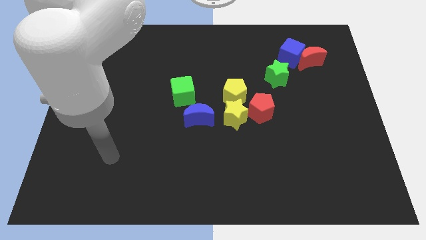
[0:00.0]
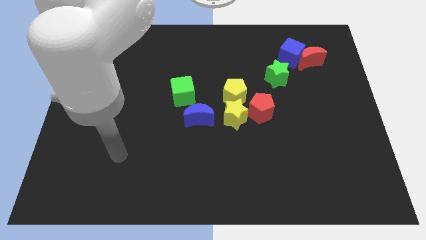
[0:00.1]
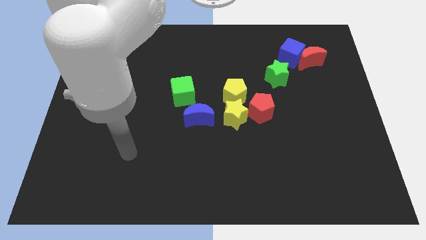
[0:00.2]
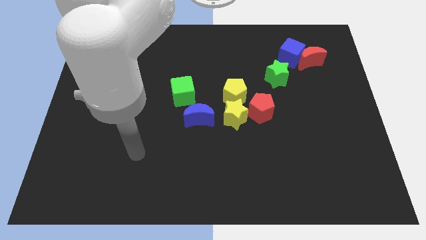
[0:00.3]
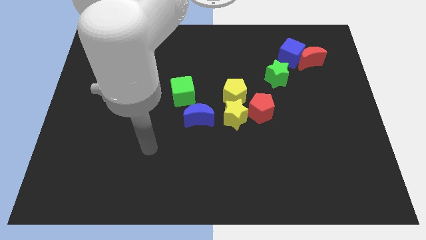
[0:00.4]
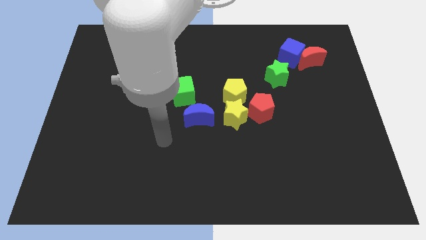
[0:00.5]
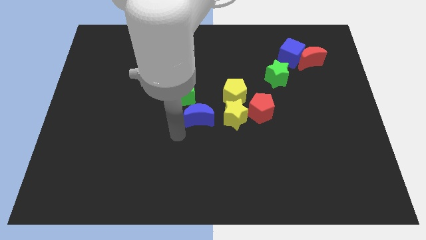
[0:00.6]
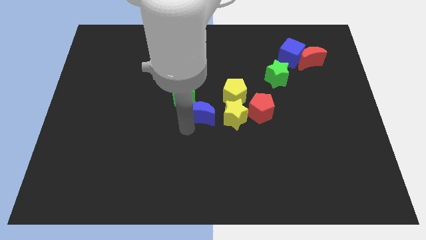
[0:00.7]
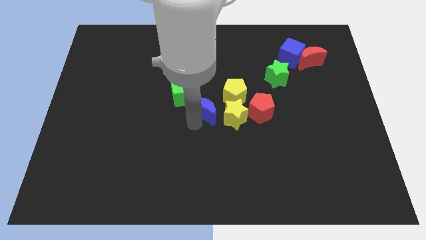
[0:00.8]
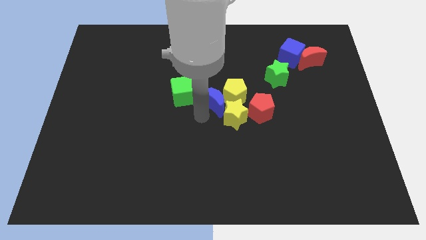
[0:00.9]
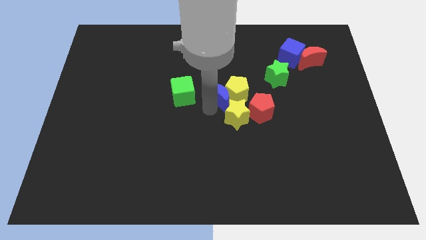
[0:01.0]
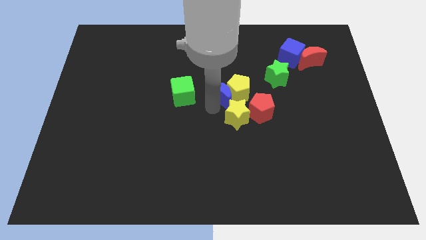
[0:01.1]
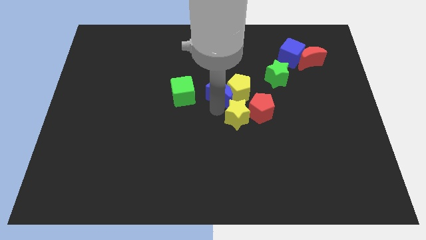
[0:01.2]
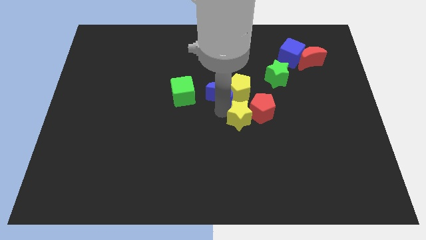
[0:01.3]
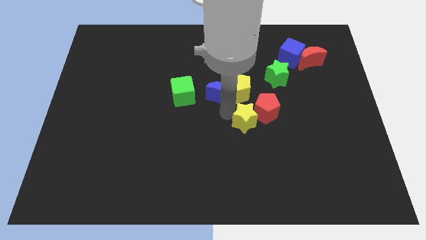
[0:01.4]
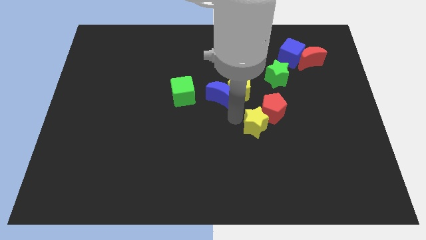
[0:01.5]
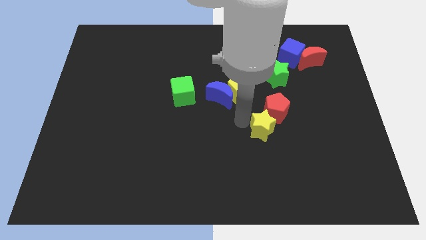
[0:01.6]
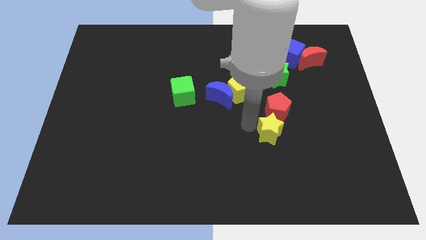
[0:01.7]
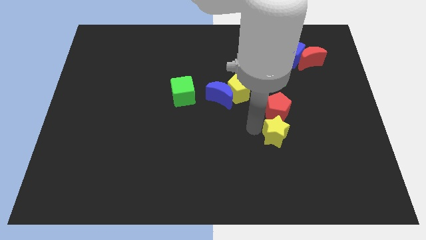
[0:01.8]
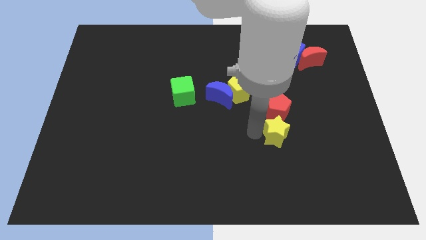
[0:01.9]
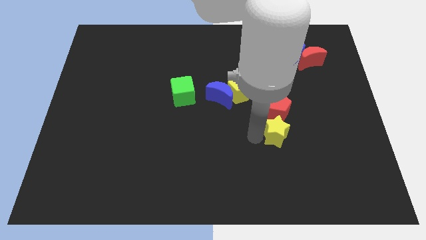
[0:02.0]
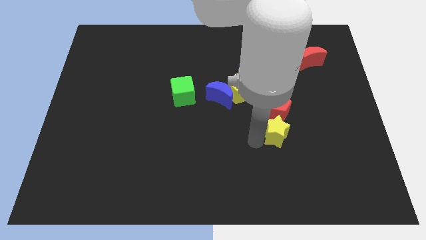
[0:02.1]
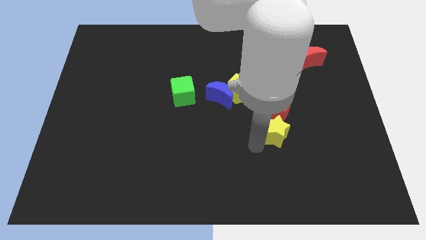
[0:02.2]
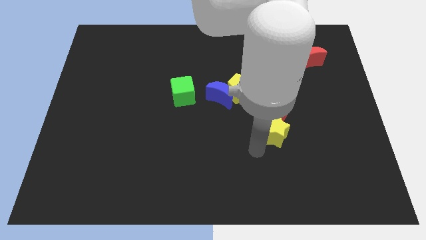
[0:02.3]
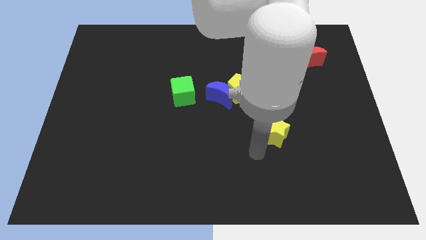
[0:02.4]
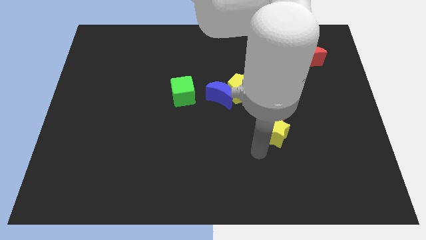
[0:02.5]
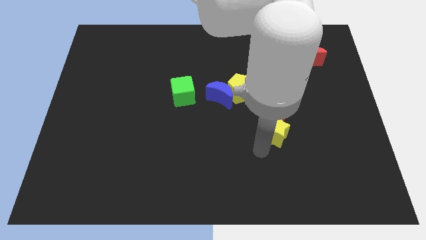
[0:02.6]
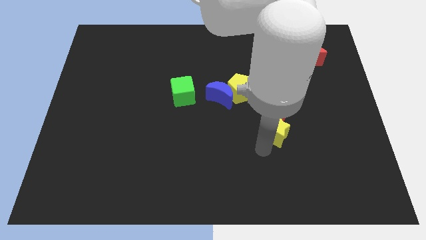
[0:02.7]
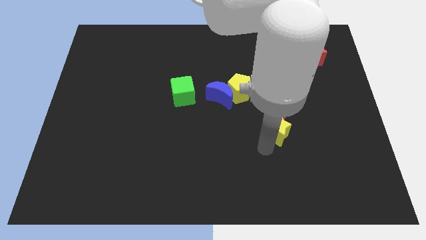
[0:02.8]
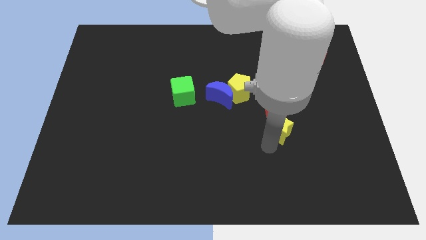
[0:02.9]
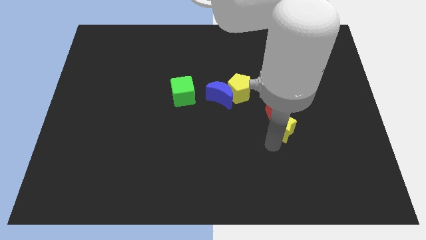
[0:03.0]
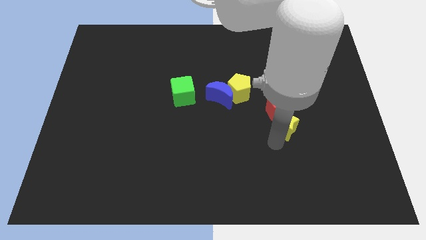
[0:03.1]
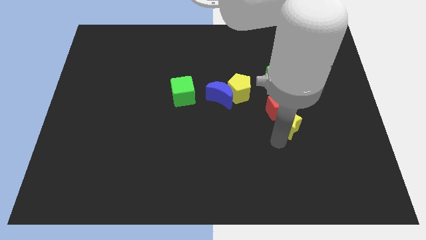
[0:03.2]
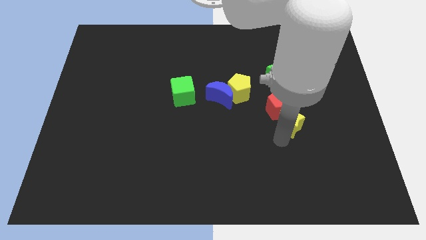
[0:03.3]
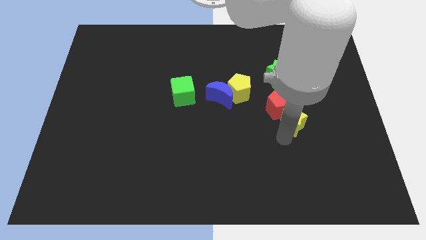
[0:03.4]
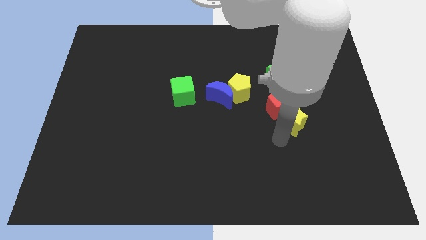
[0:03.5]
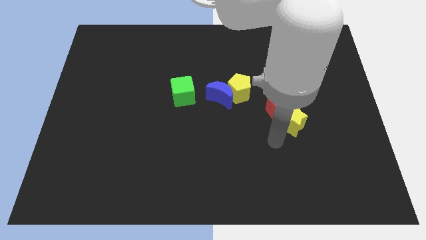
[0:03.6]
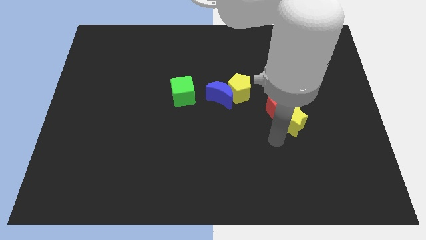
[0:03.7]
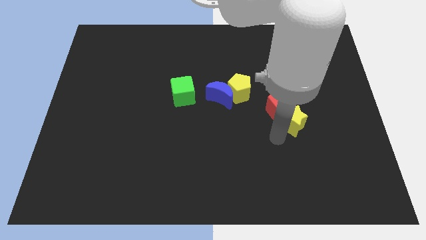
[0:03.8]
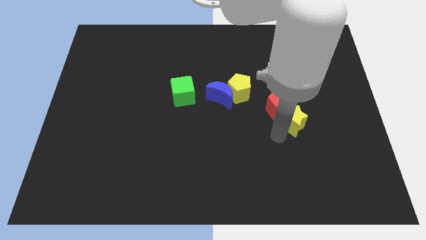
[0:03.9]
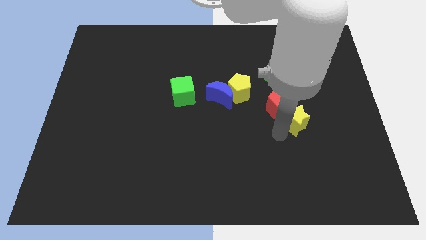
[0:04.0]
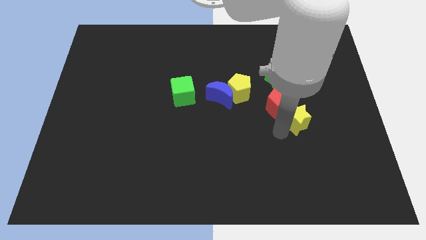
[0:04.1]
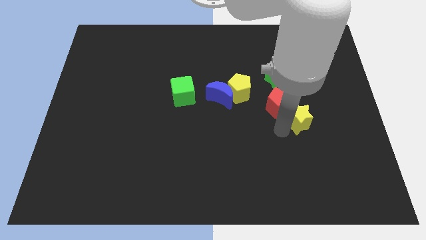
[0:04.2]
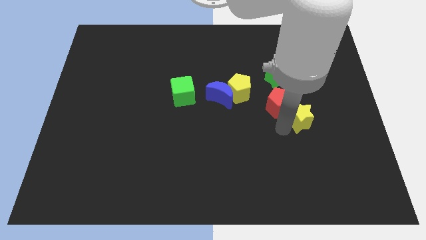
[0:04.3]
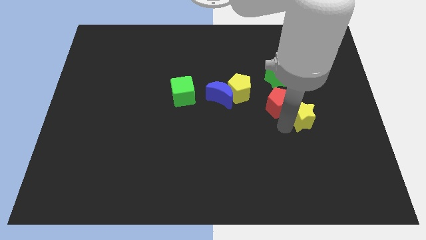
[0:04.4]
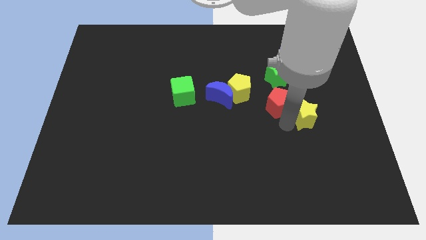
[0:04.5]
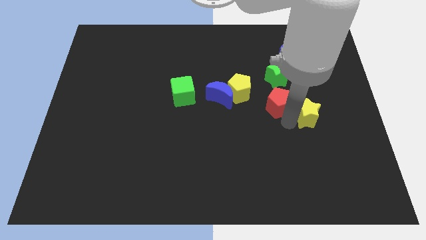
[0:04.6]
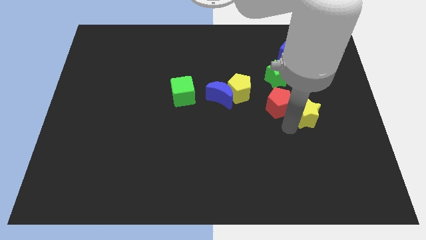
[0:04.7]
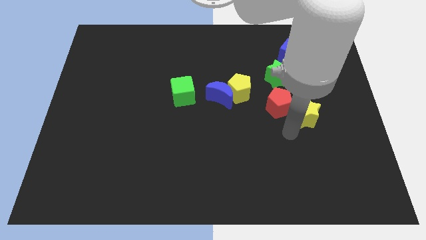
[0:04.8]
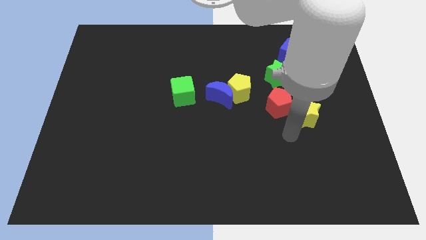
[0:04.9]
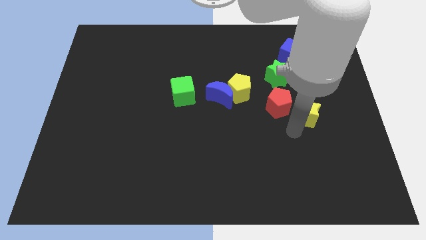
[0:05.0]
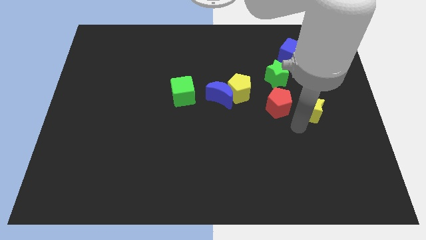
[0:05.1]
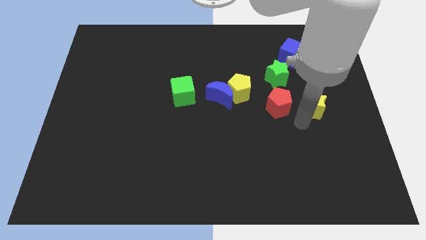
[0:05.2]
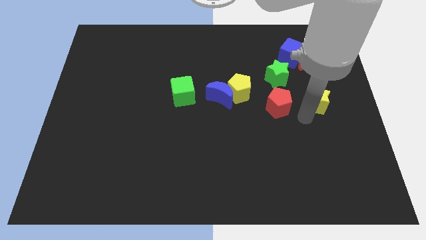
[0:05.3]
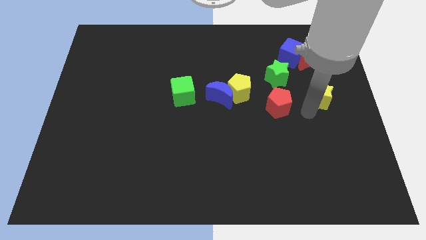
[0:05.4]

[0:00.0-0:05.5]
slide the yellow star to the right side

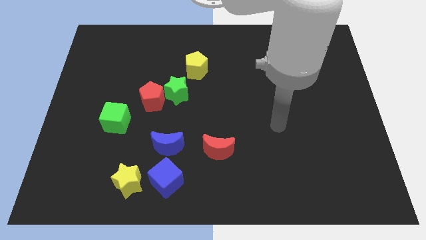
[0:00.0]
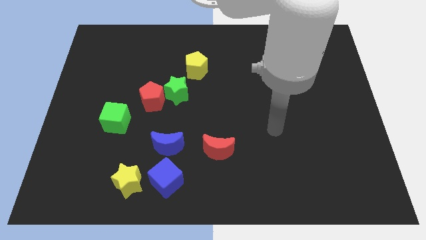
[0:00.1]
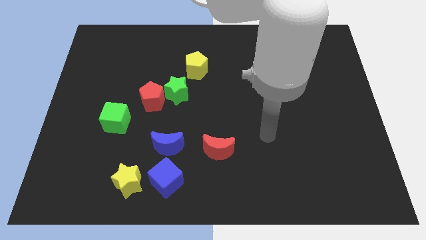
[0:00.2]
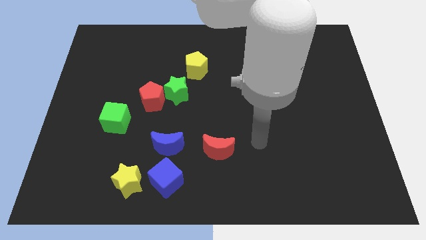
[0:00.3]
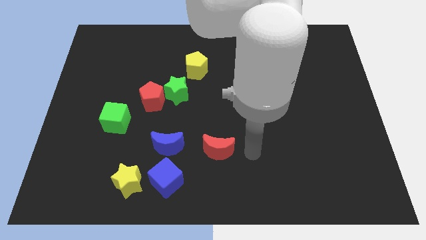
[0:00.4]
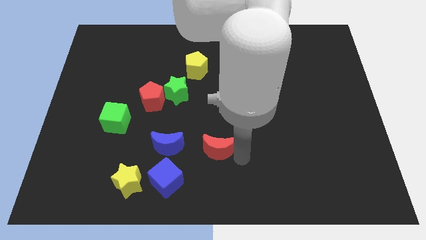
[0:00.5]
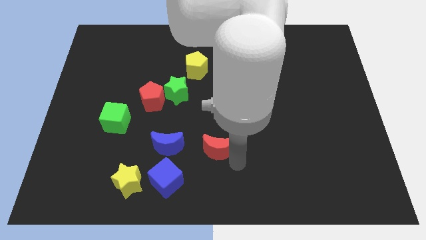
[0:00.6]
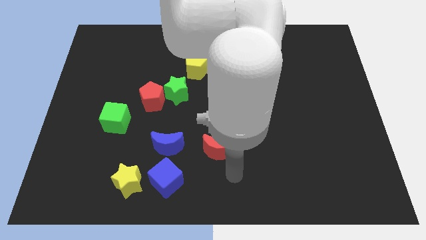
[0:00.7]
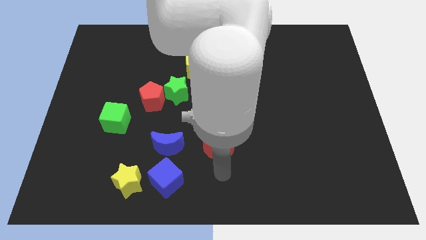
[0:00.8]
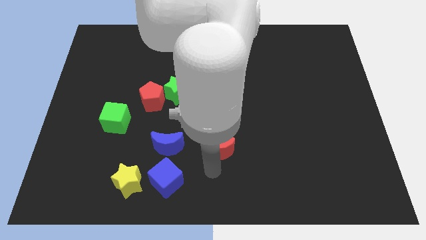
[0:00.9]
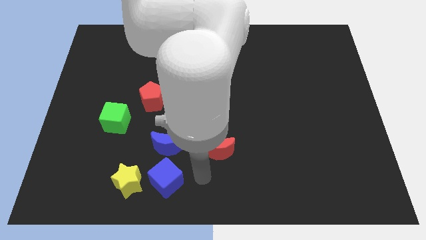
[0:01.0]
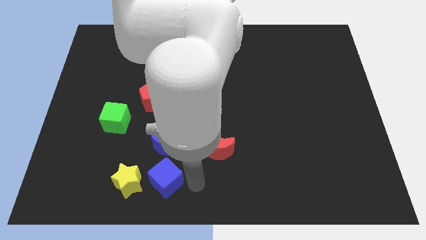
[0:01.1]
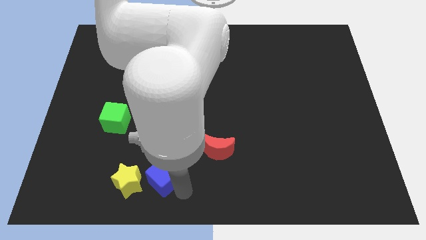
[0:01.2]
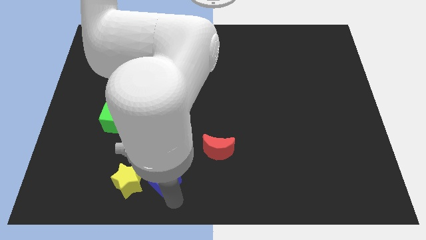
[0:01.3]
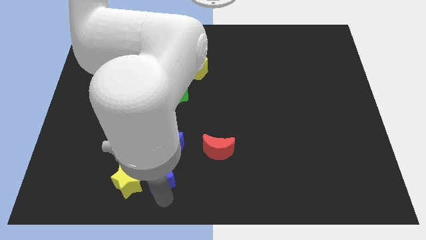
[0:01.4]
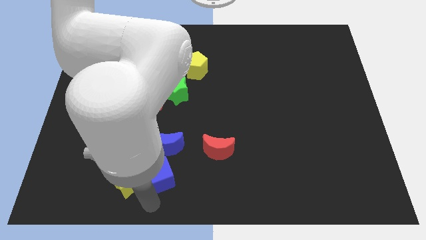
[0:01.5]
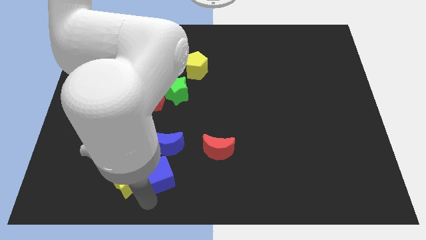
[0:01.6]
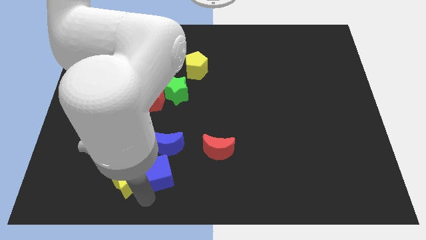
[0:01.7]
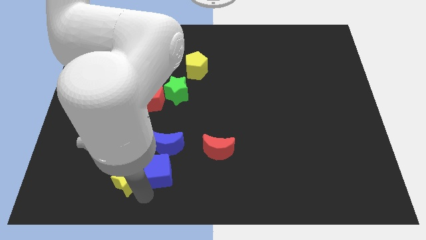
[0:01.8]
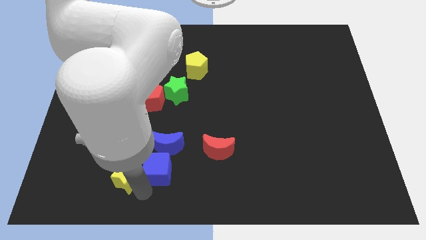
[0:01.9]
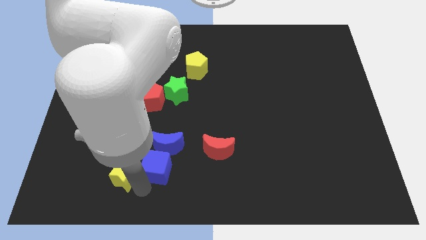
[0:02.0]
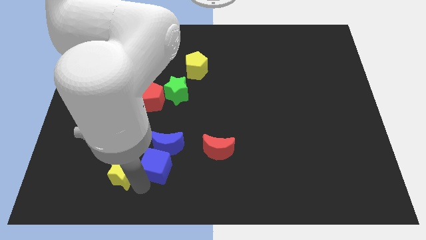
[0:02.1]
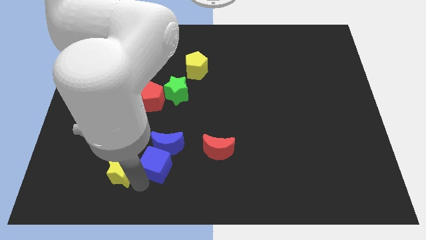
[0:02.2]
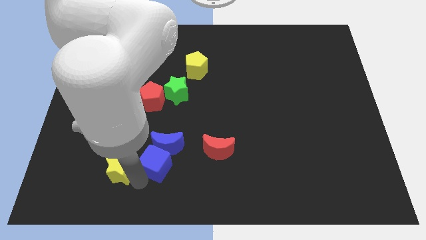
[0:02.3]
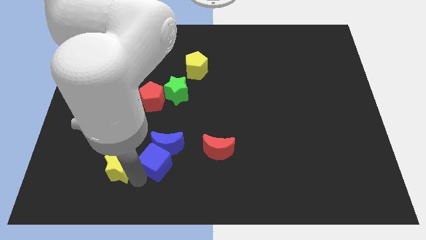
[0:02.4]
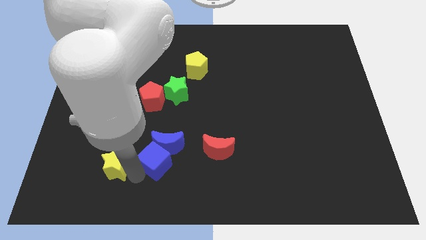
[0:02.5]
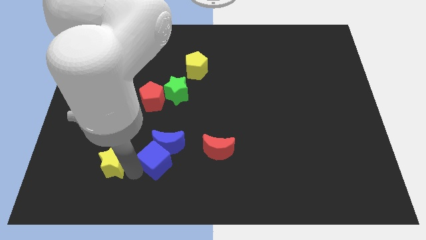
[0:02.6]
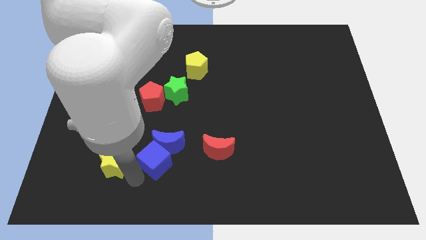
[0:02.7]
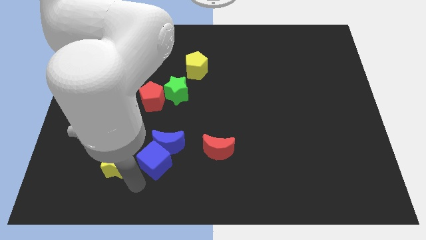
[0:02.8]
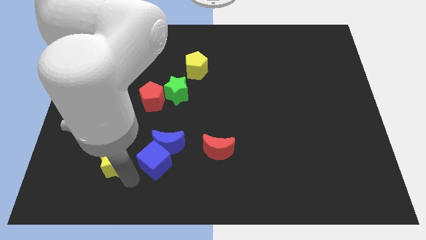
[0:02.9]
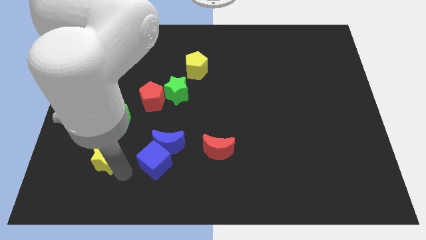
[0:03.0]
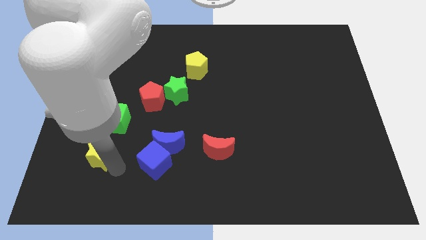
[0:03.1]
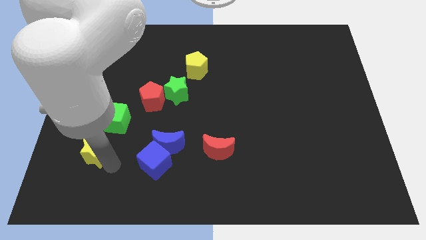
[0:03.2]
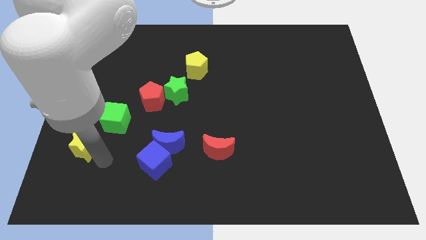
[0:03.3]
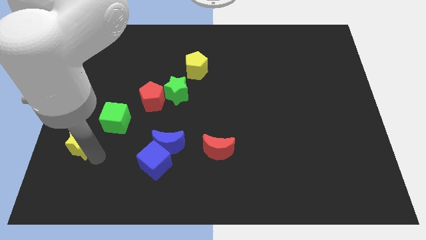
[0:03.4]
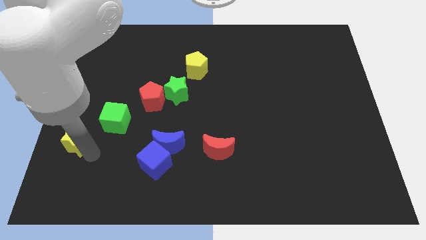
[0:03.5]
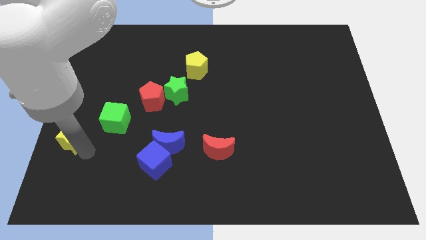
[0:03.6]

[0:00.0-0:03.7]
slide the yellow star to the left side of the board
